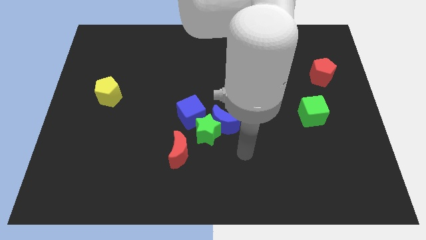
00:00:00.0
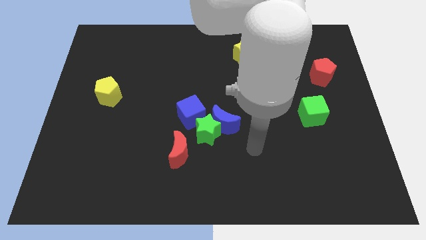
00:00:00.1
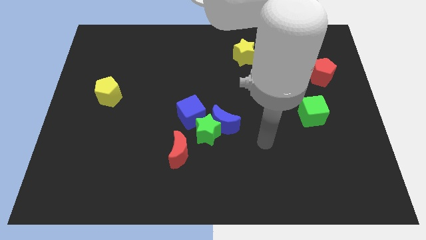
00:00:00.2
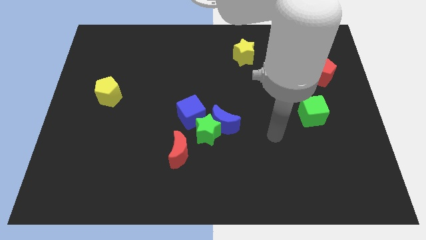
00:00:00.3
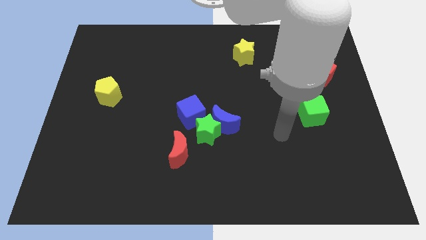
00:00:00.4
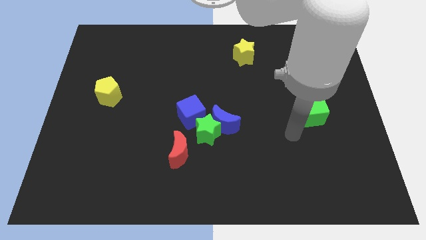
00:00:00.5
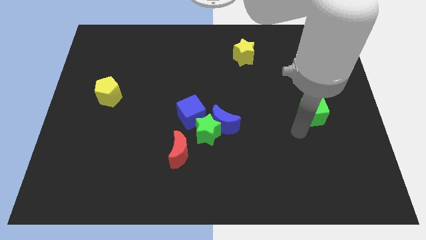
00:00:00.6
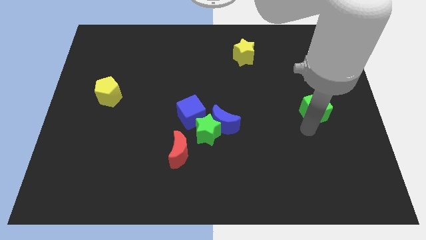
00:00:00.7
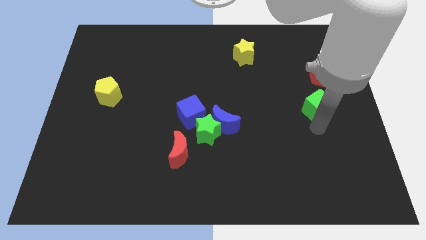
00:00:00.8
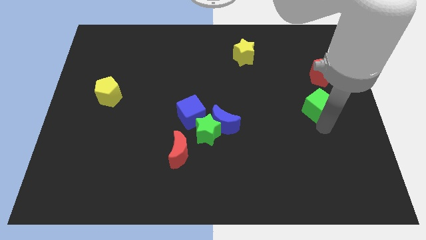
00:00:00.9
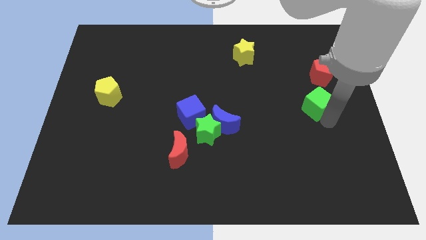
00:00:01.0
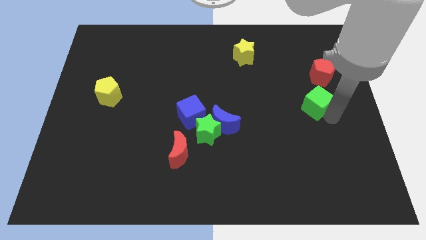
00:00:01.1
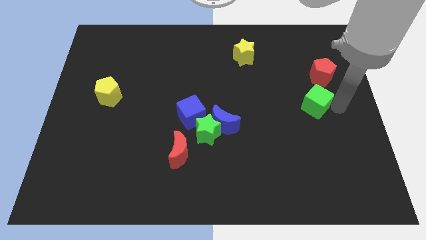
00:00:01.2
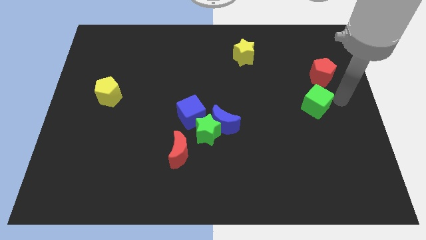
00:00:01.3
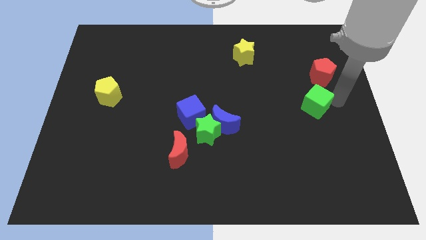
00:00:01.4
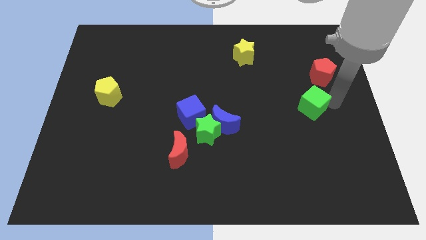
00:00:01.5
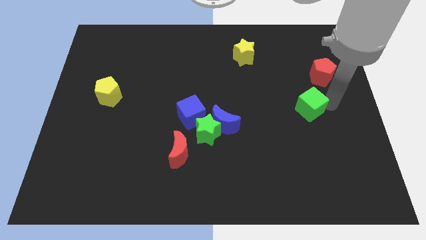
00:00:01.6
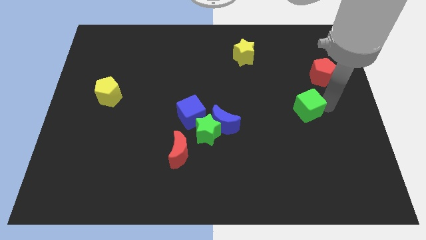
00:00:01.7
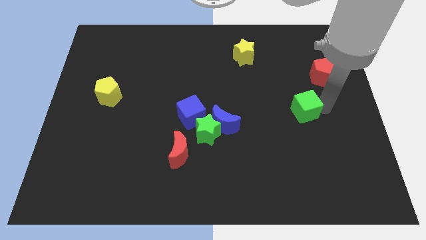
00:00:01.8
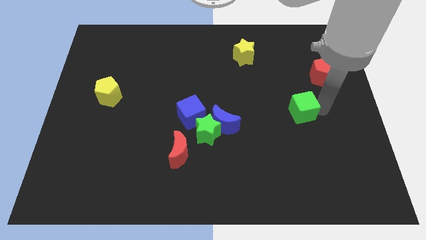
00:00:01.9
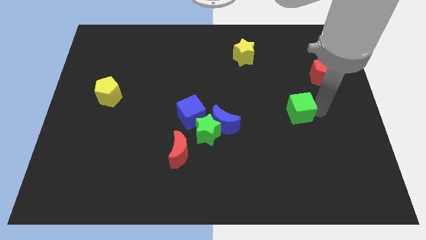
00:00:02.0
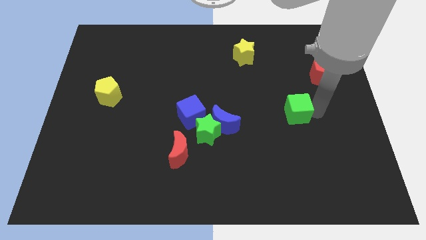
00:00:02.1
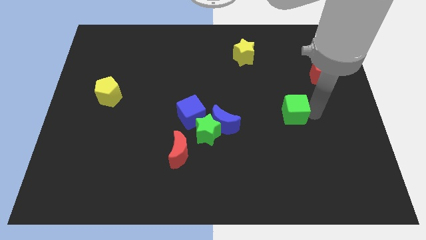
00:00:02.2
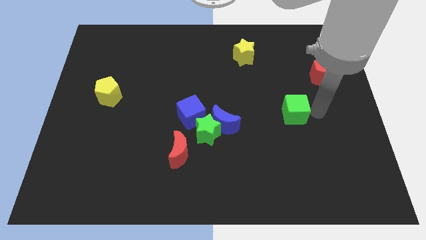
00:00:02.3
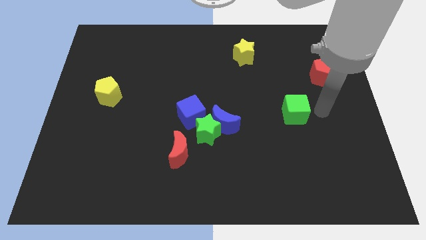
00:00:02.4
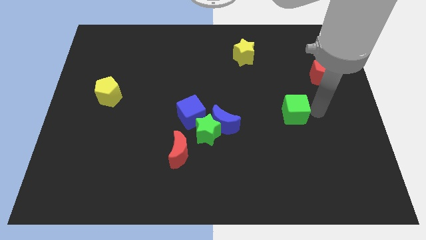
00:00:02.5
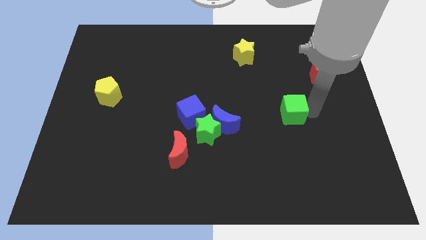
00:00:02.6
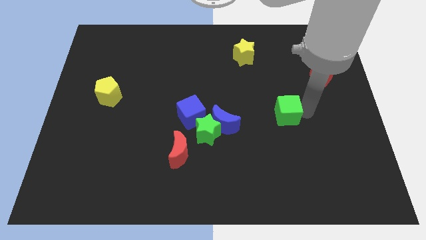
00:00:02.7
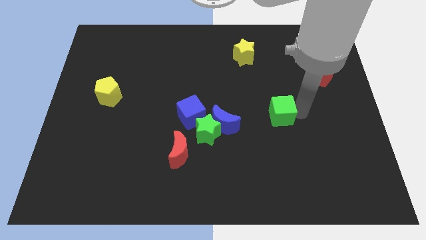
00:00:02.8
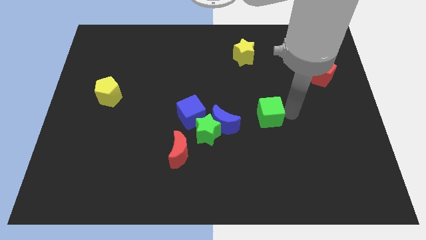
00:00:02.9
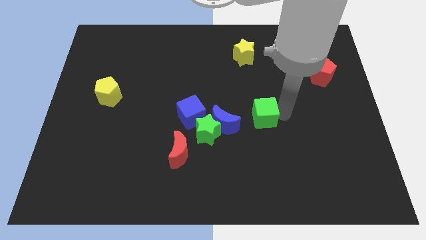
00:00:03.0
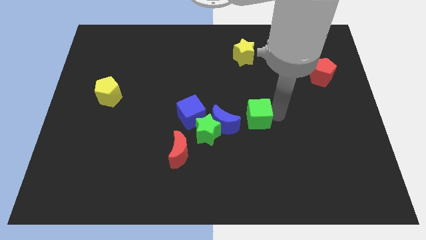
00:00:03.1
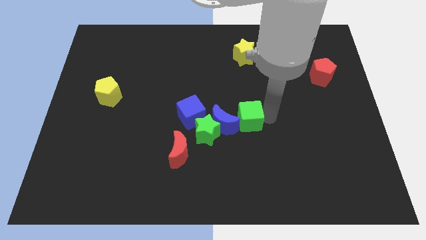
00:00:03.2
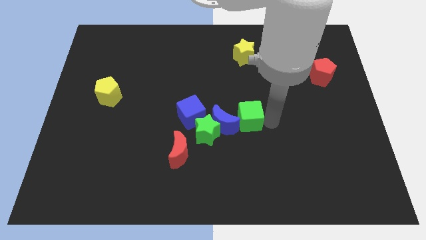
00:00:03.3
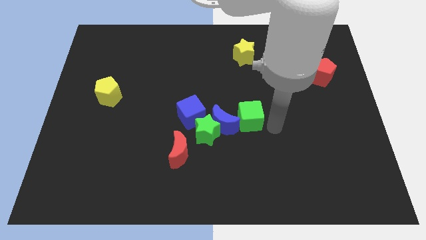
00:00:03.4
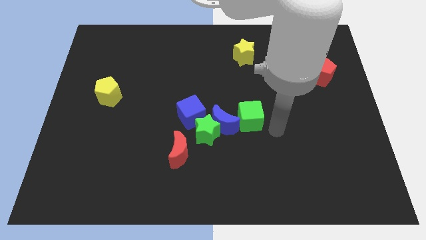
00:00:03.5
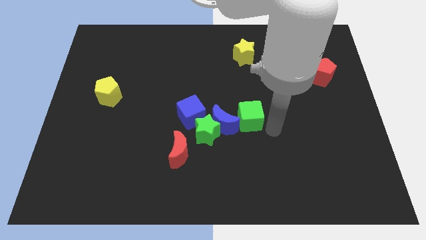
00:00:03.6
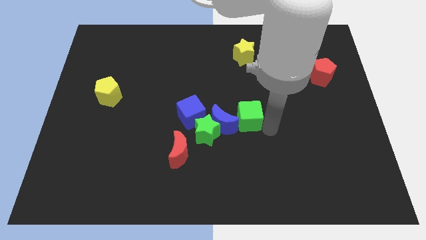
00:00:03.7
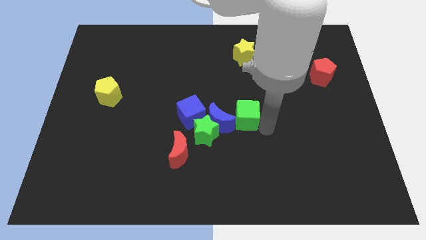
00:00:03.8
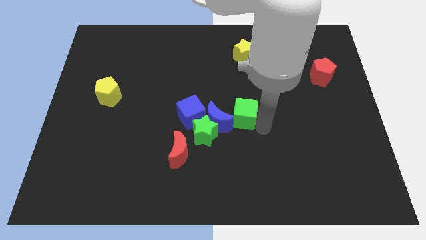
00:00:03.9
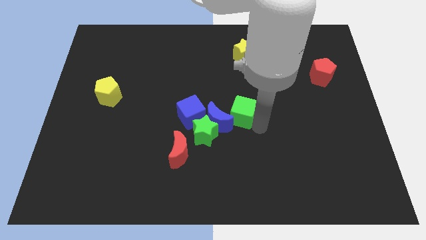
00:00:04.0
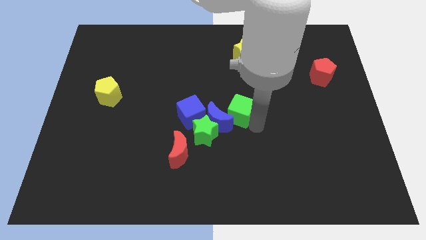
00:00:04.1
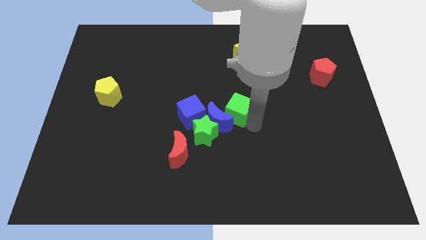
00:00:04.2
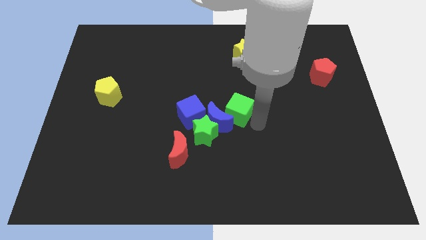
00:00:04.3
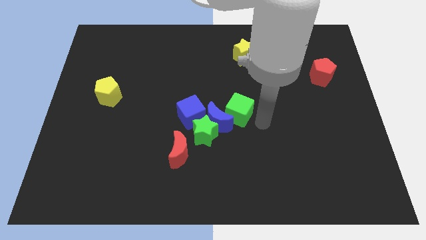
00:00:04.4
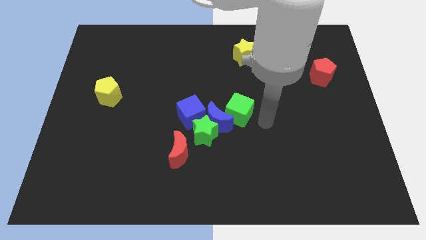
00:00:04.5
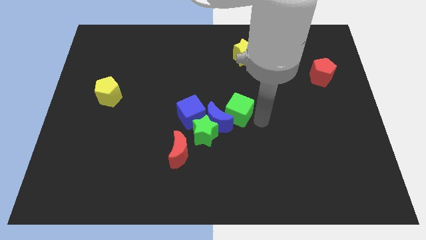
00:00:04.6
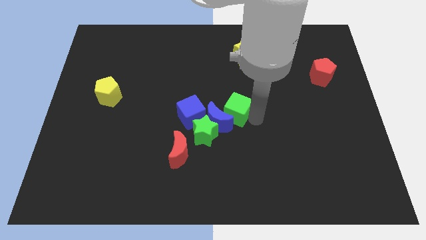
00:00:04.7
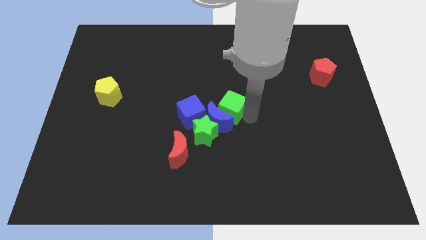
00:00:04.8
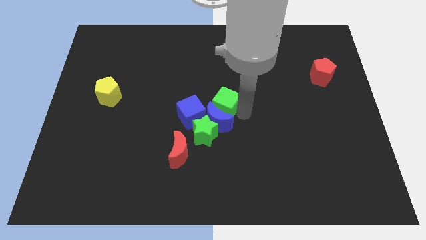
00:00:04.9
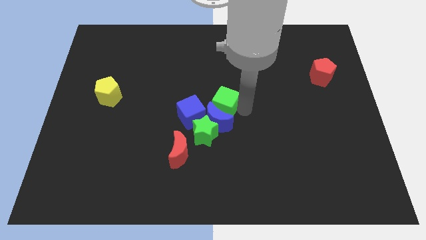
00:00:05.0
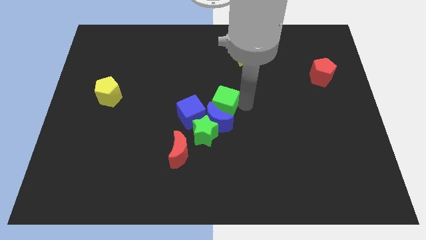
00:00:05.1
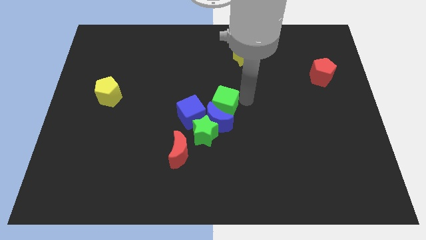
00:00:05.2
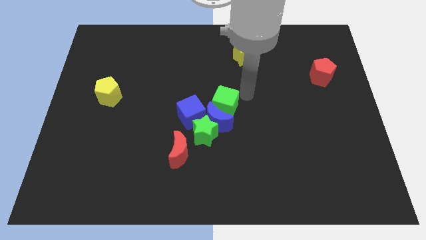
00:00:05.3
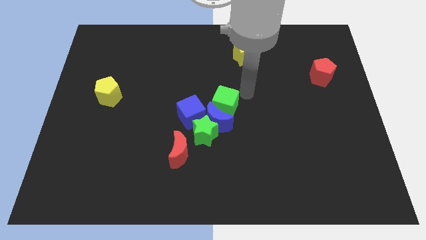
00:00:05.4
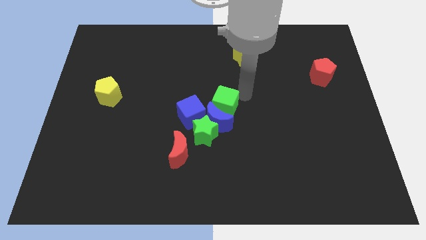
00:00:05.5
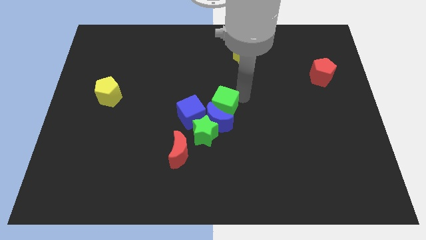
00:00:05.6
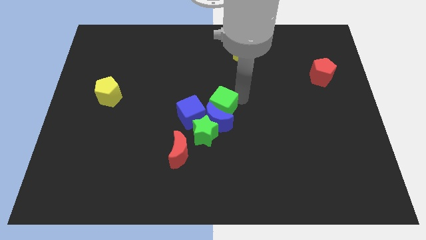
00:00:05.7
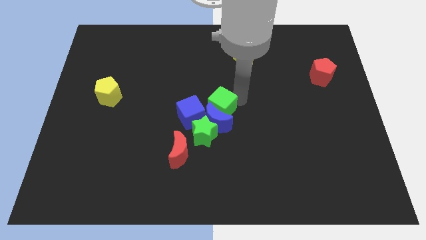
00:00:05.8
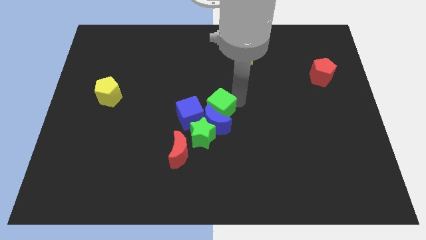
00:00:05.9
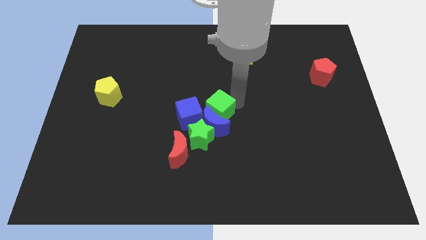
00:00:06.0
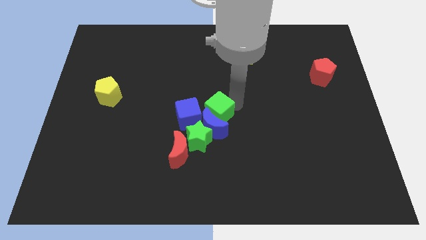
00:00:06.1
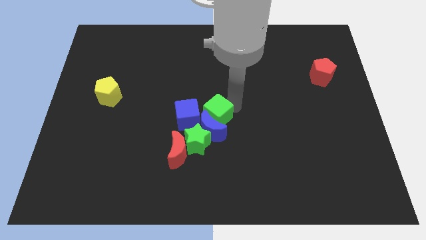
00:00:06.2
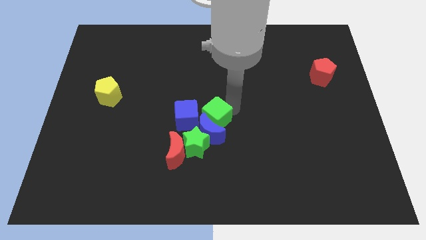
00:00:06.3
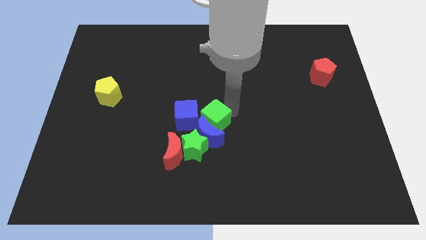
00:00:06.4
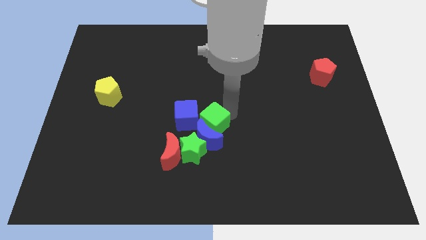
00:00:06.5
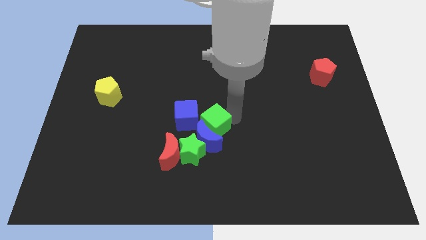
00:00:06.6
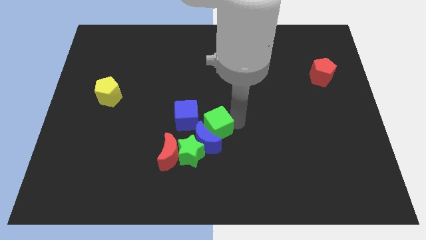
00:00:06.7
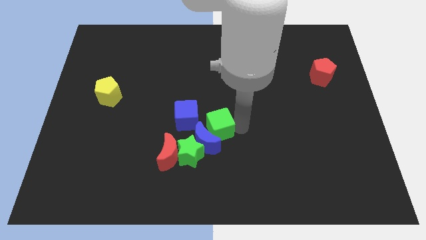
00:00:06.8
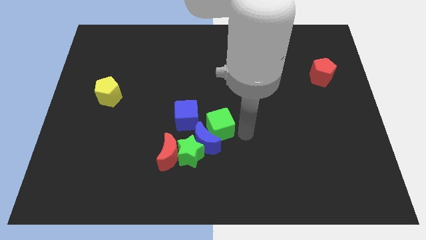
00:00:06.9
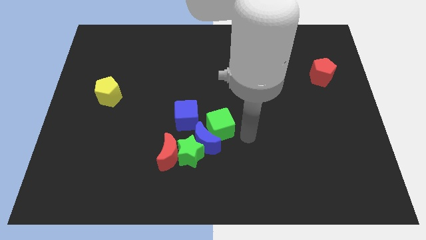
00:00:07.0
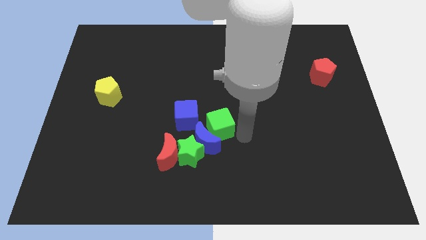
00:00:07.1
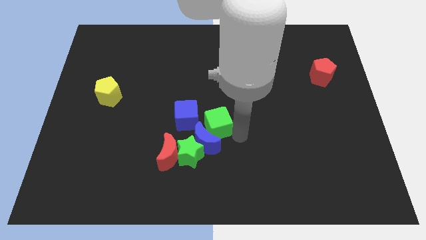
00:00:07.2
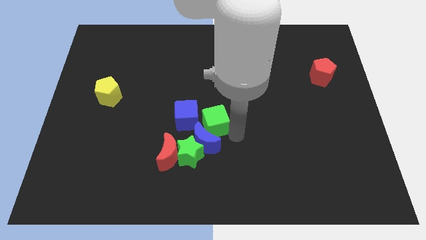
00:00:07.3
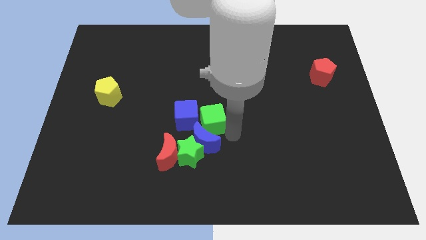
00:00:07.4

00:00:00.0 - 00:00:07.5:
push the green cube next to the blue cube

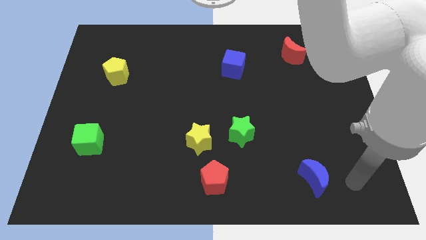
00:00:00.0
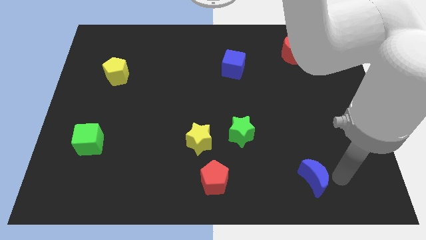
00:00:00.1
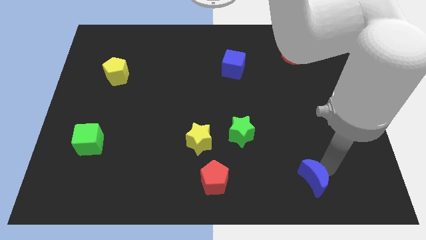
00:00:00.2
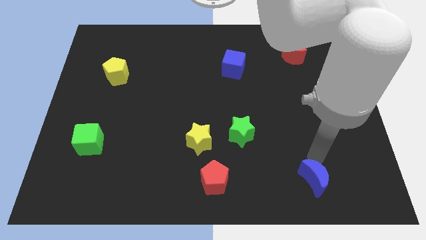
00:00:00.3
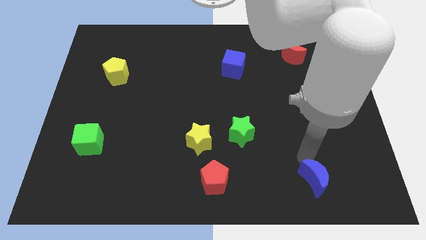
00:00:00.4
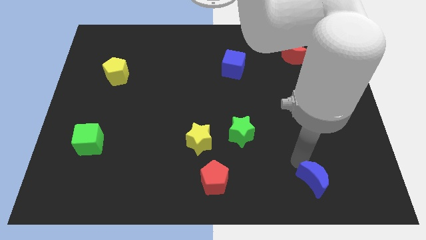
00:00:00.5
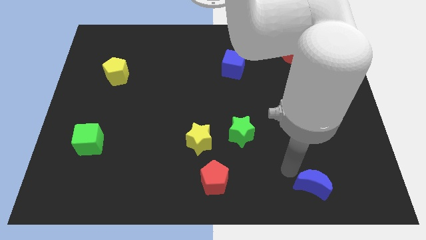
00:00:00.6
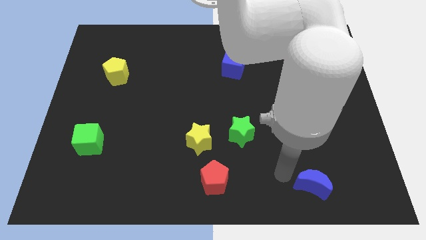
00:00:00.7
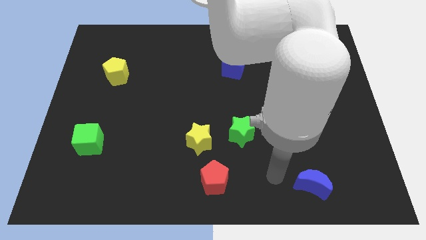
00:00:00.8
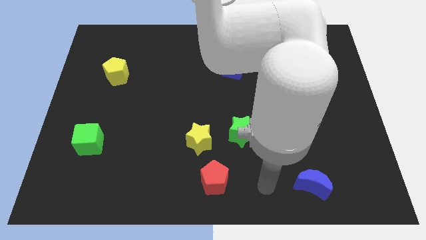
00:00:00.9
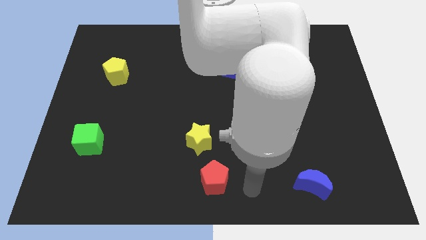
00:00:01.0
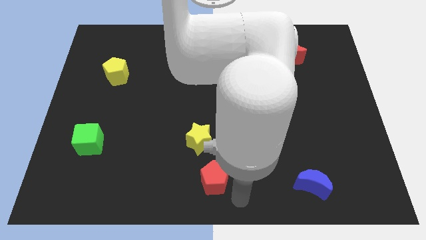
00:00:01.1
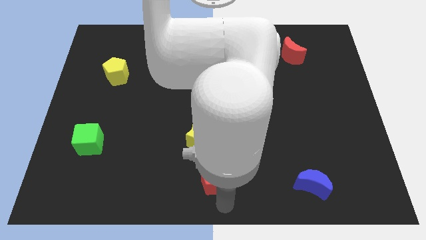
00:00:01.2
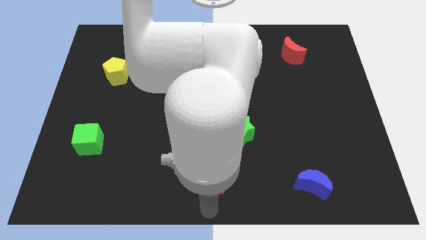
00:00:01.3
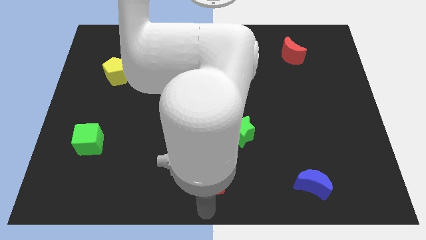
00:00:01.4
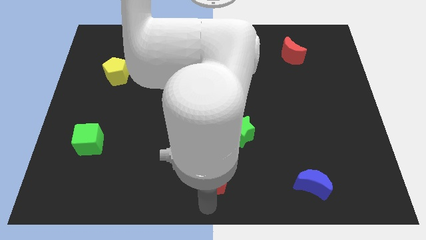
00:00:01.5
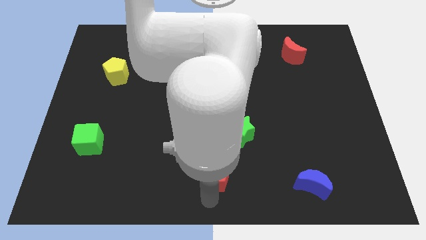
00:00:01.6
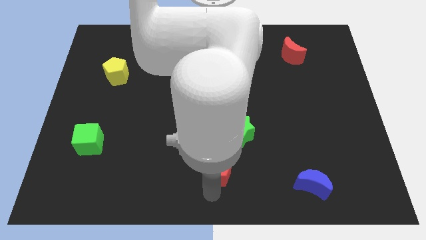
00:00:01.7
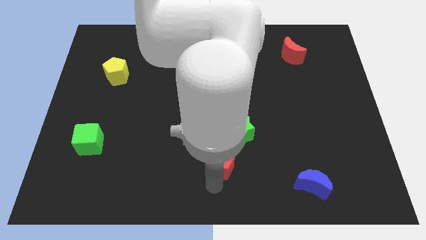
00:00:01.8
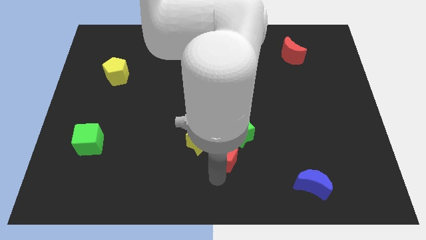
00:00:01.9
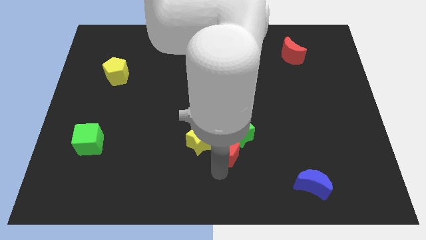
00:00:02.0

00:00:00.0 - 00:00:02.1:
slide the red pentagon next to the green star
